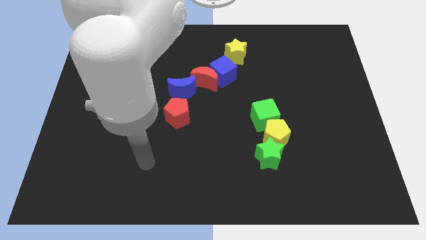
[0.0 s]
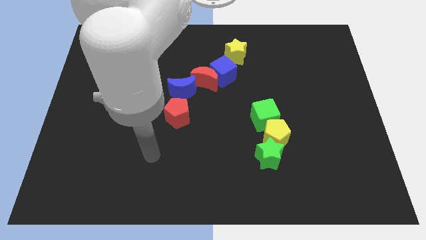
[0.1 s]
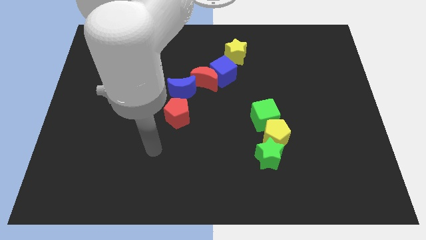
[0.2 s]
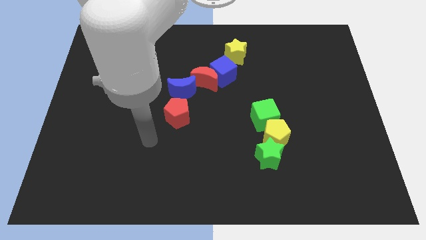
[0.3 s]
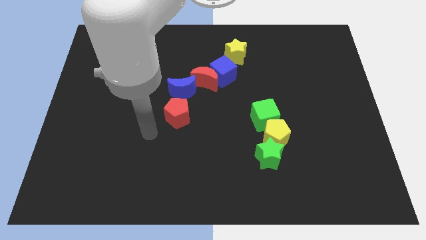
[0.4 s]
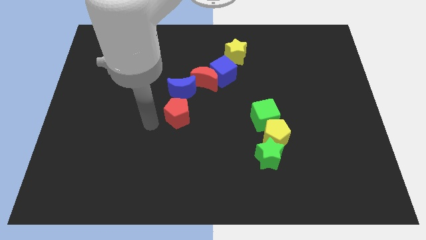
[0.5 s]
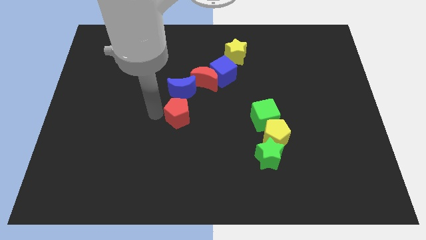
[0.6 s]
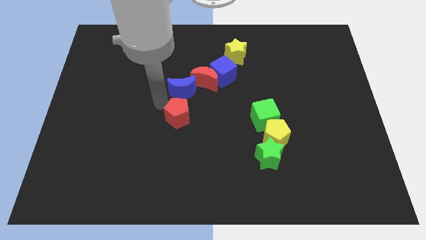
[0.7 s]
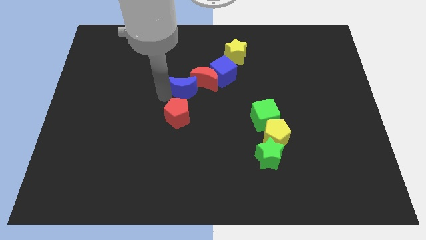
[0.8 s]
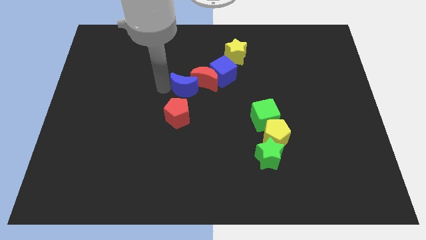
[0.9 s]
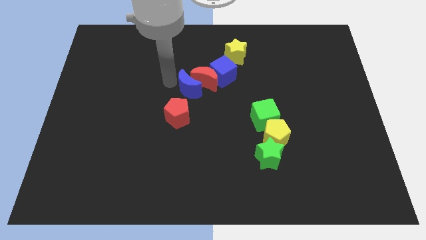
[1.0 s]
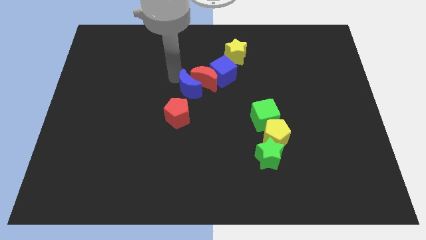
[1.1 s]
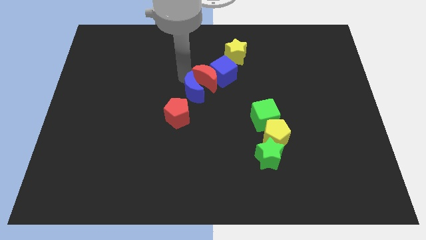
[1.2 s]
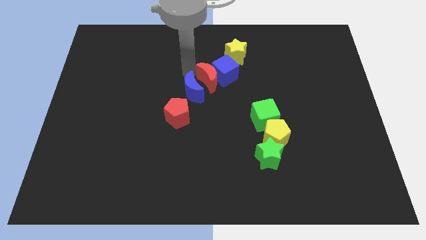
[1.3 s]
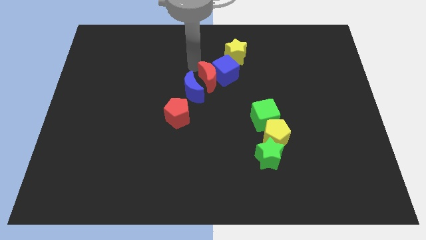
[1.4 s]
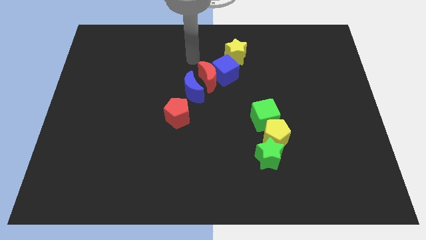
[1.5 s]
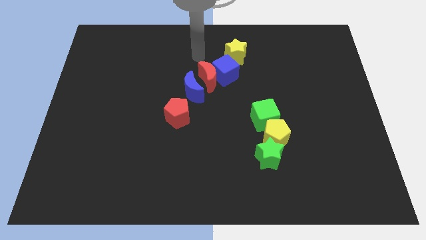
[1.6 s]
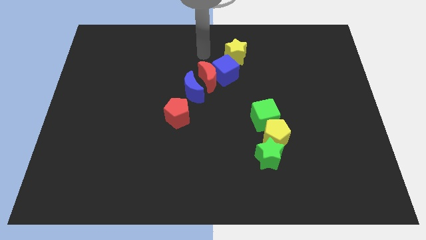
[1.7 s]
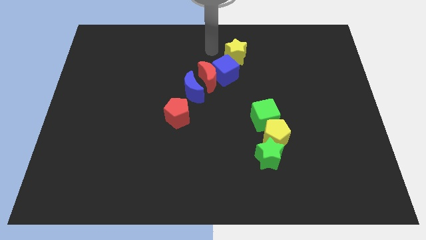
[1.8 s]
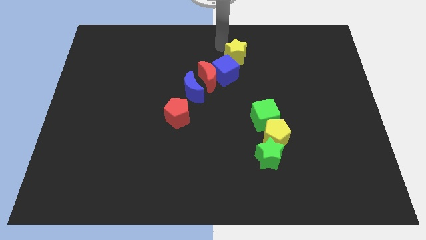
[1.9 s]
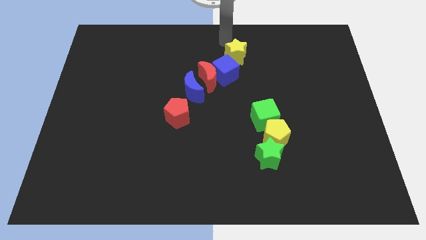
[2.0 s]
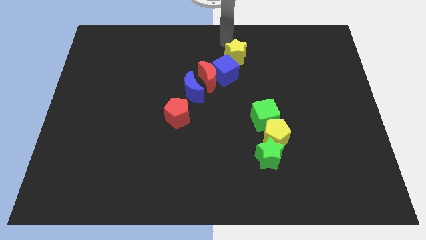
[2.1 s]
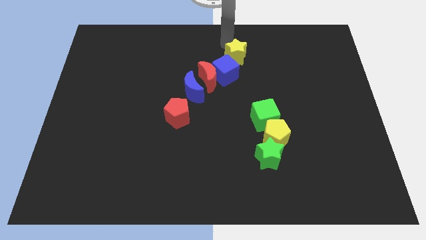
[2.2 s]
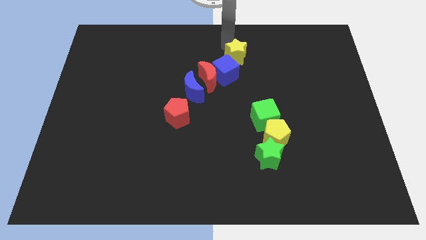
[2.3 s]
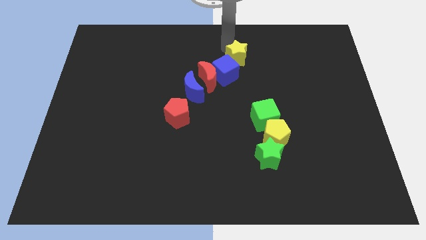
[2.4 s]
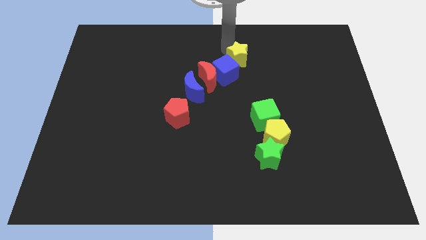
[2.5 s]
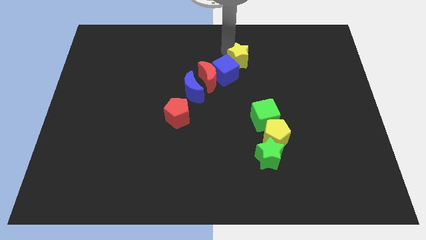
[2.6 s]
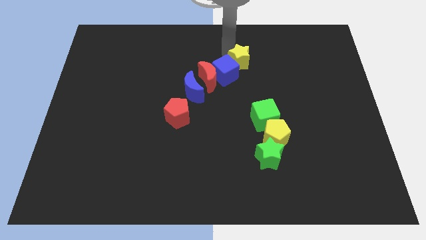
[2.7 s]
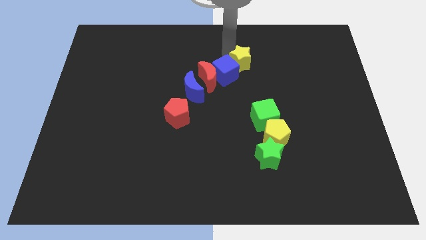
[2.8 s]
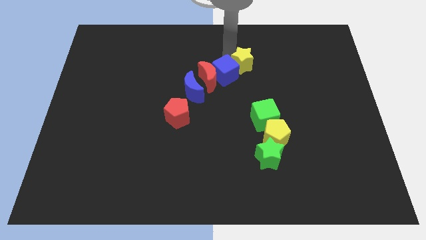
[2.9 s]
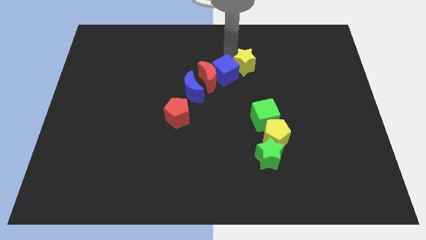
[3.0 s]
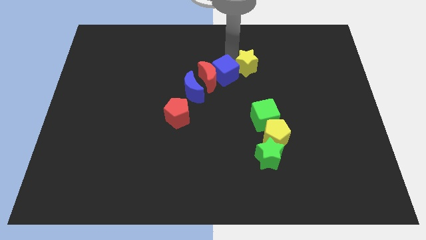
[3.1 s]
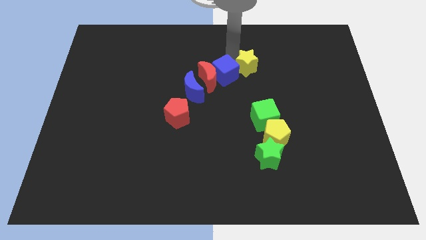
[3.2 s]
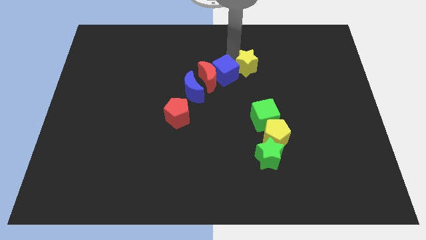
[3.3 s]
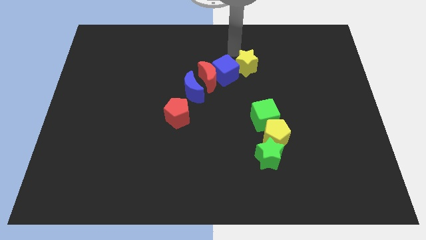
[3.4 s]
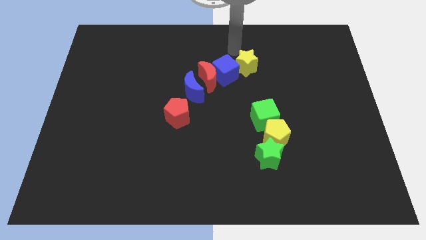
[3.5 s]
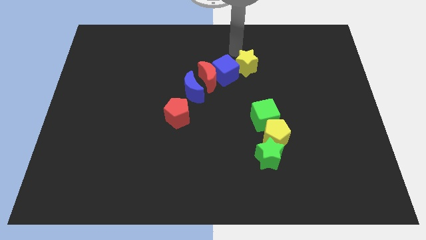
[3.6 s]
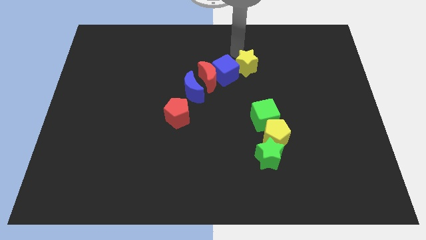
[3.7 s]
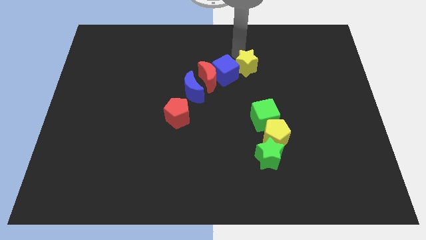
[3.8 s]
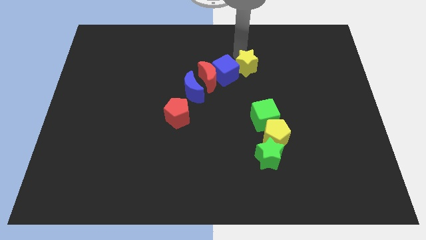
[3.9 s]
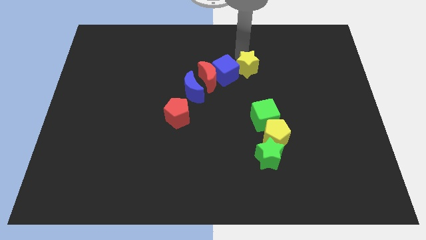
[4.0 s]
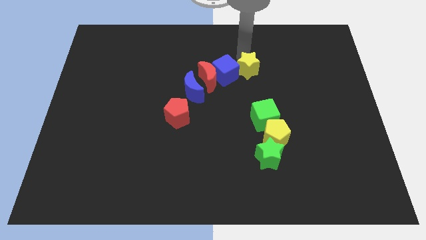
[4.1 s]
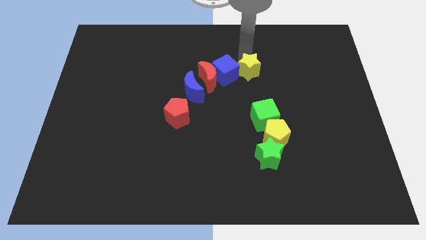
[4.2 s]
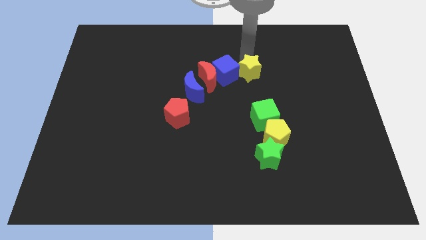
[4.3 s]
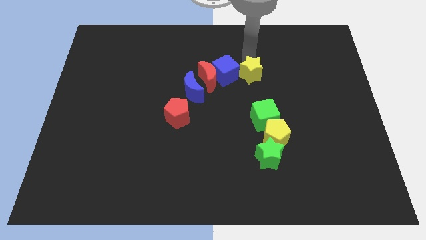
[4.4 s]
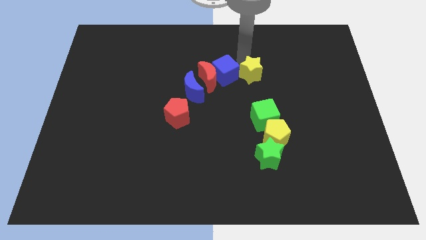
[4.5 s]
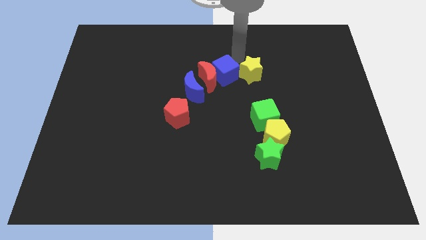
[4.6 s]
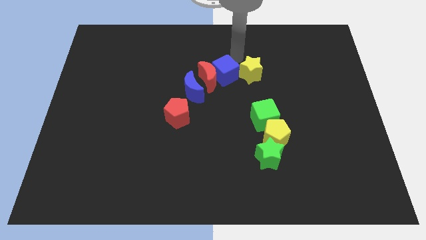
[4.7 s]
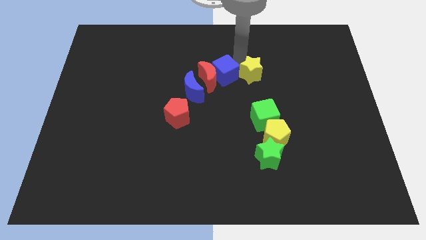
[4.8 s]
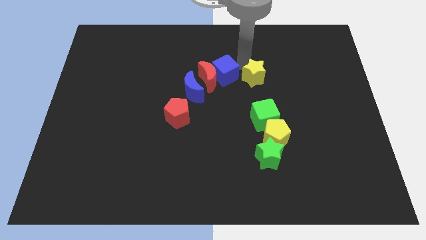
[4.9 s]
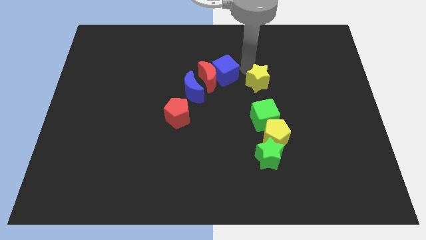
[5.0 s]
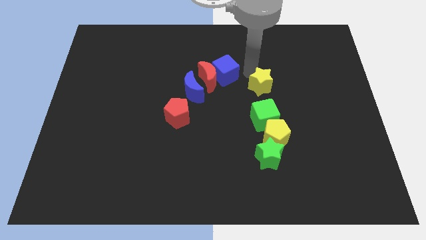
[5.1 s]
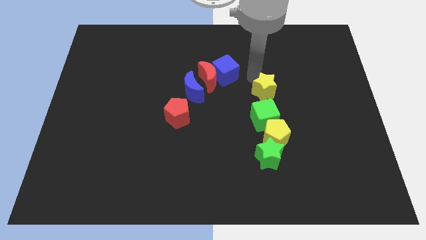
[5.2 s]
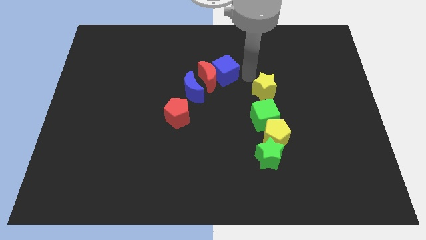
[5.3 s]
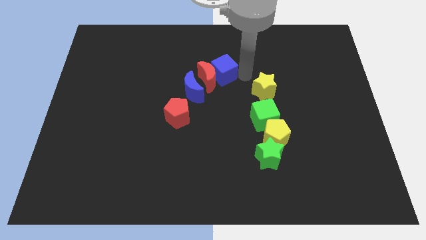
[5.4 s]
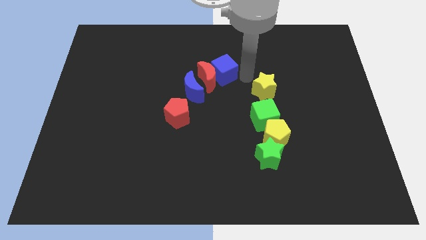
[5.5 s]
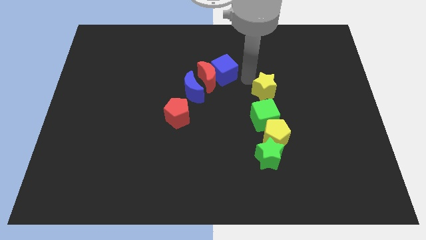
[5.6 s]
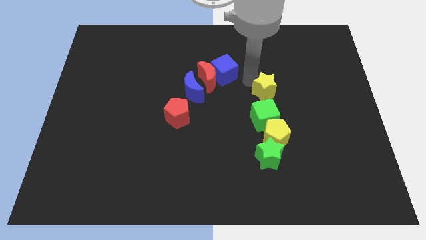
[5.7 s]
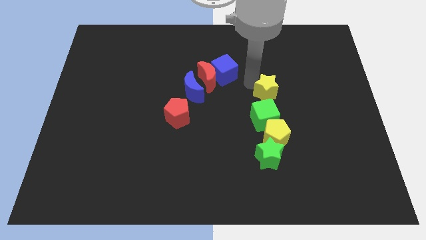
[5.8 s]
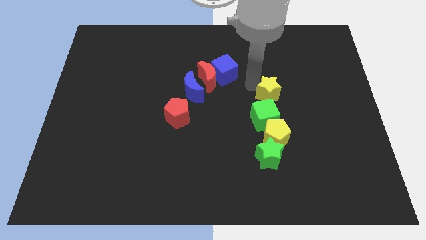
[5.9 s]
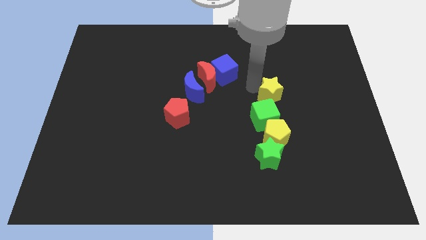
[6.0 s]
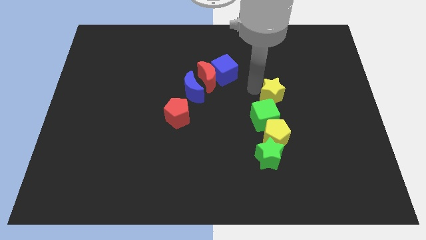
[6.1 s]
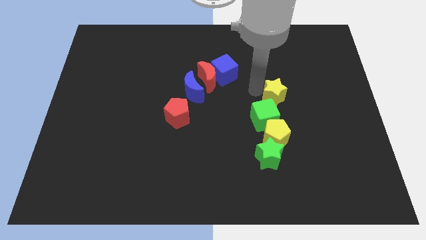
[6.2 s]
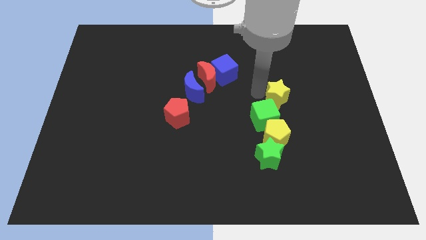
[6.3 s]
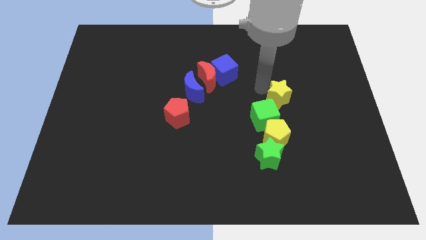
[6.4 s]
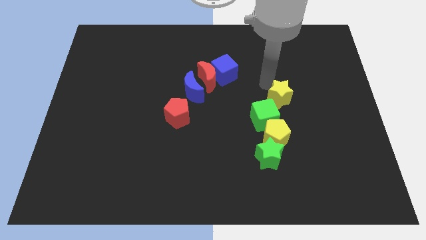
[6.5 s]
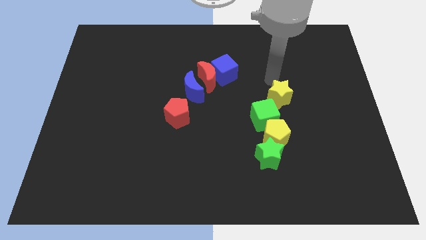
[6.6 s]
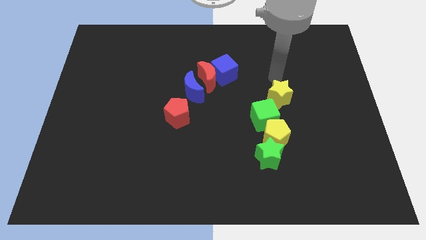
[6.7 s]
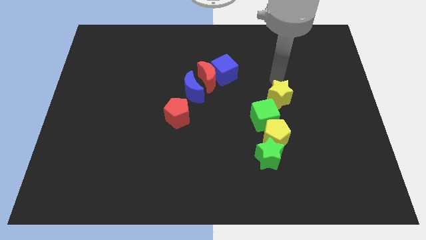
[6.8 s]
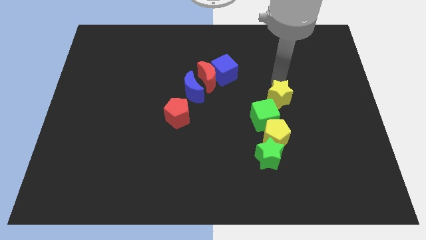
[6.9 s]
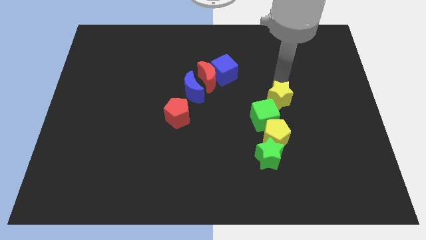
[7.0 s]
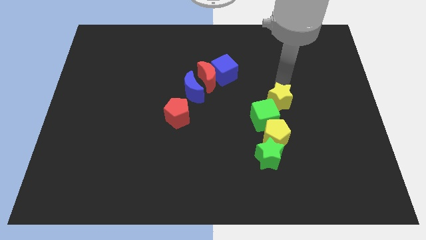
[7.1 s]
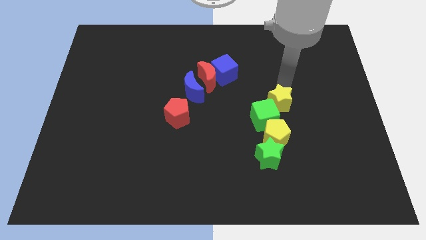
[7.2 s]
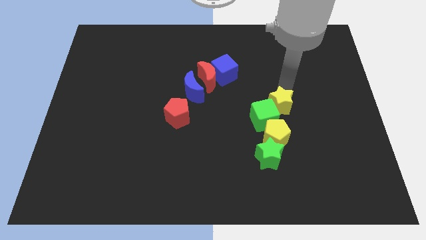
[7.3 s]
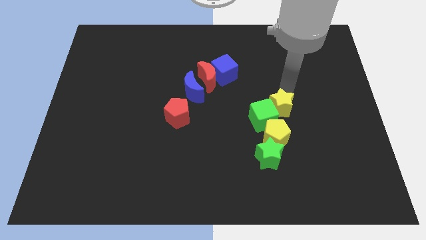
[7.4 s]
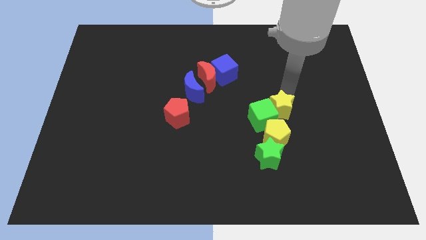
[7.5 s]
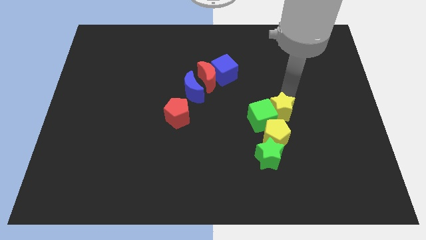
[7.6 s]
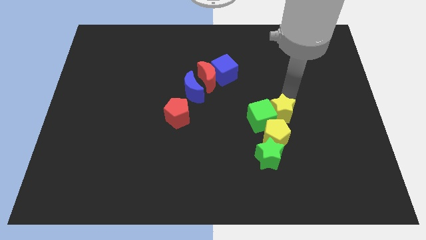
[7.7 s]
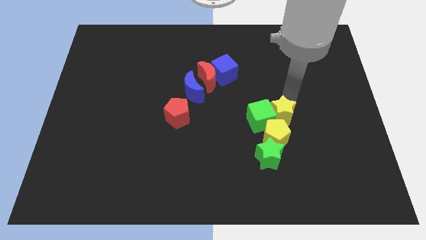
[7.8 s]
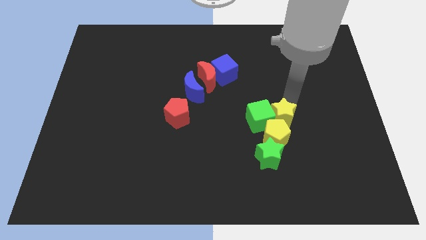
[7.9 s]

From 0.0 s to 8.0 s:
move the yellow star towards the yellow pentagon
